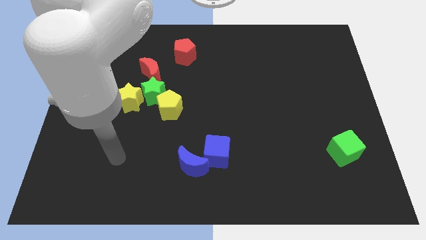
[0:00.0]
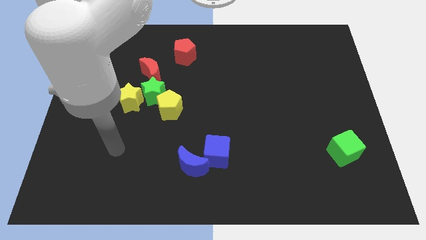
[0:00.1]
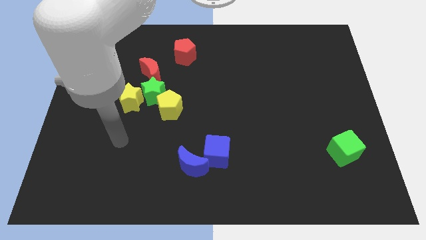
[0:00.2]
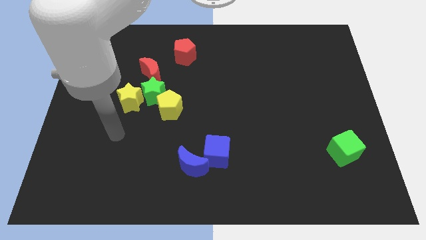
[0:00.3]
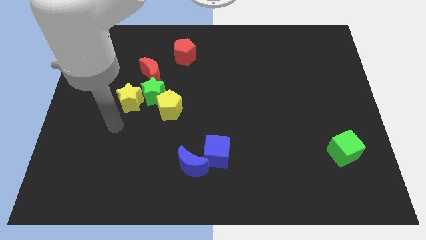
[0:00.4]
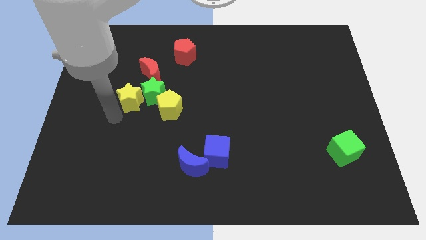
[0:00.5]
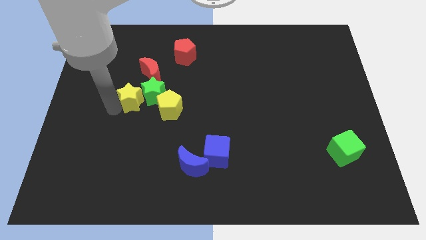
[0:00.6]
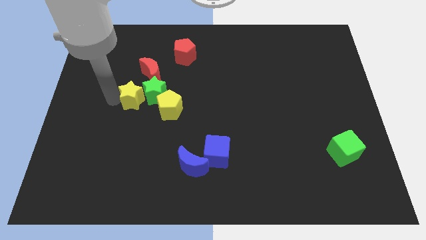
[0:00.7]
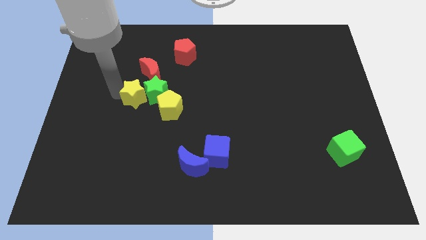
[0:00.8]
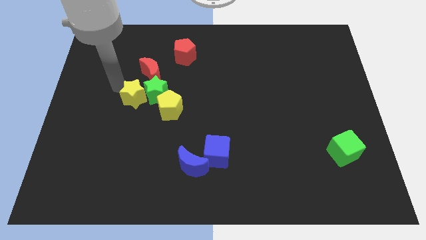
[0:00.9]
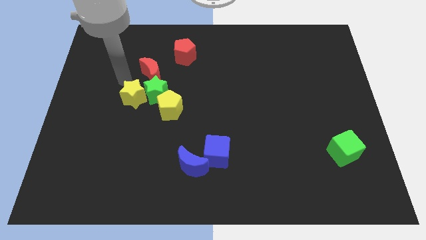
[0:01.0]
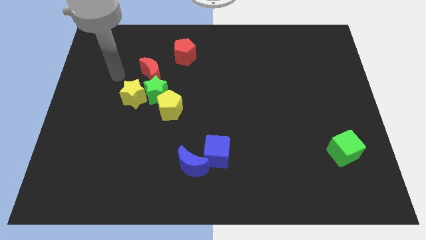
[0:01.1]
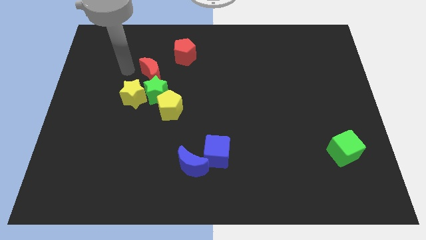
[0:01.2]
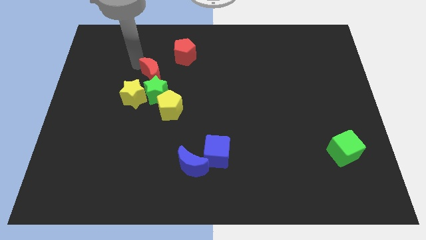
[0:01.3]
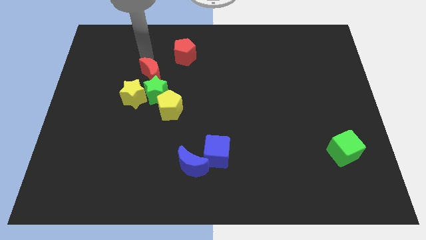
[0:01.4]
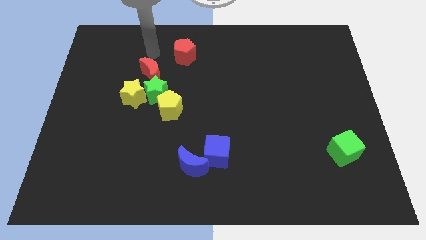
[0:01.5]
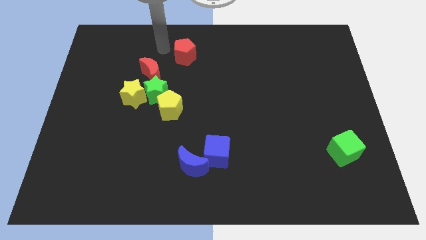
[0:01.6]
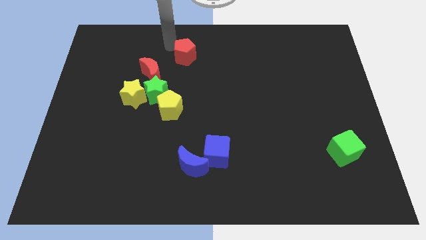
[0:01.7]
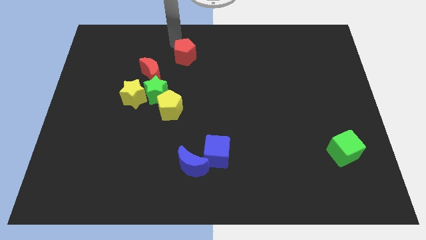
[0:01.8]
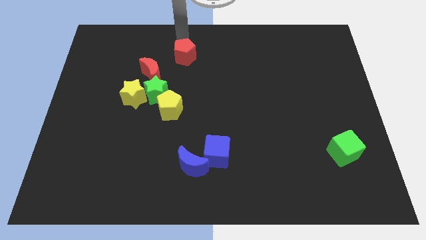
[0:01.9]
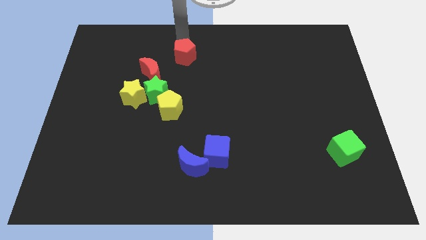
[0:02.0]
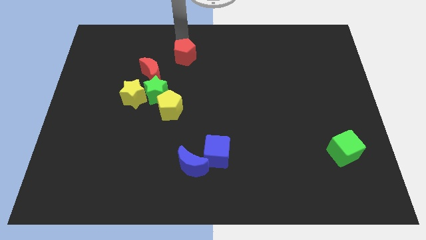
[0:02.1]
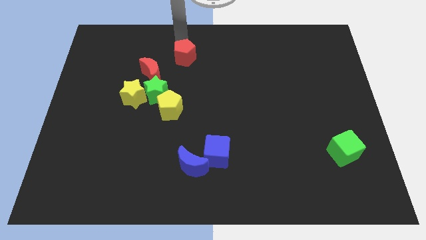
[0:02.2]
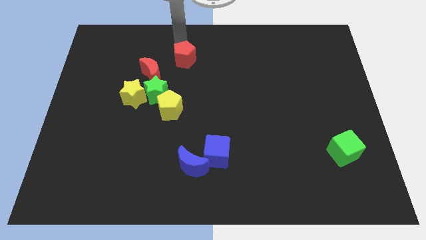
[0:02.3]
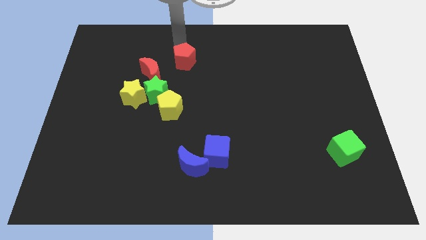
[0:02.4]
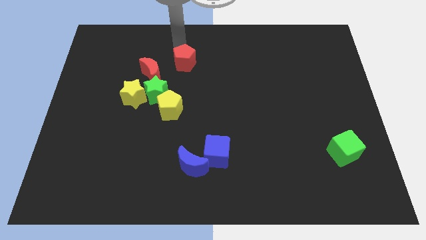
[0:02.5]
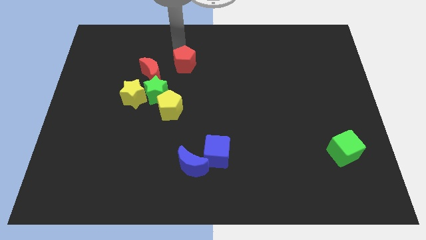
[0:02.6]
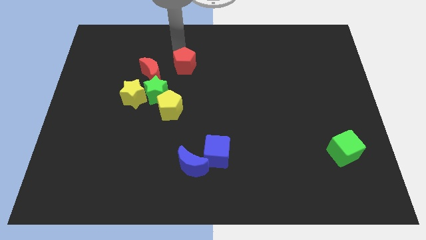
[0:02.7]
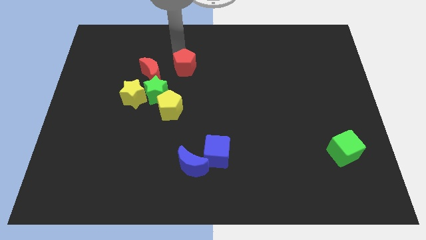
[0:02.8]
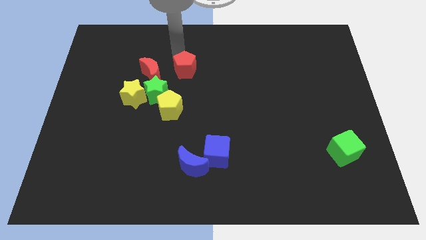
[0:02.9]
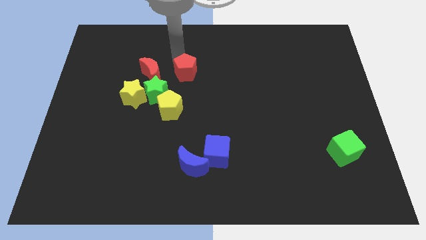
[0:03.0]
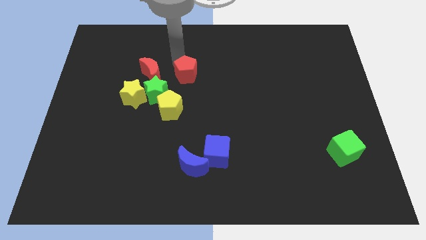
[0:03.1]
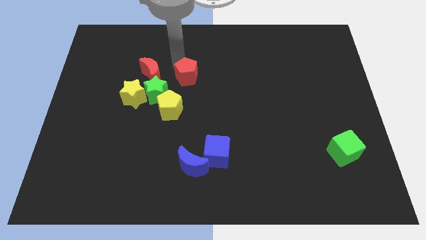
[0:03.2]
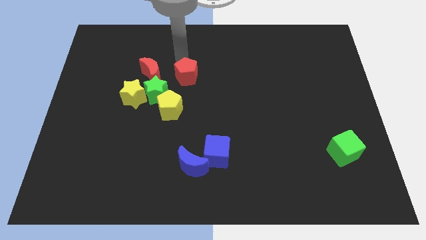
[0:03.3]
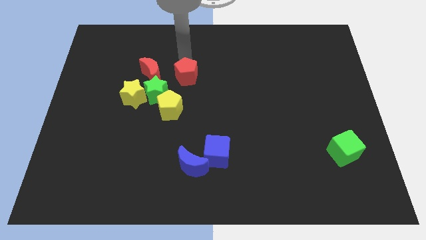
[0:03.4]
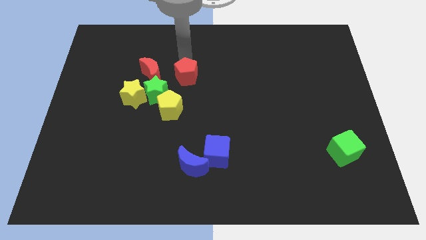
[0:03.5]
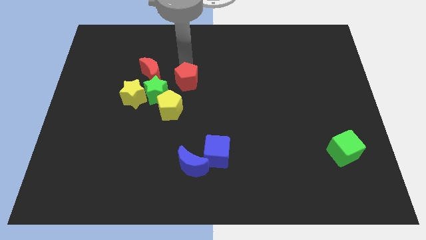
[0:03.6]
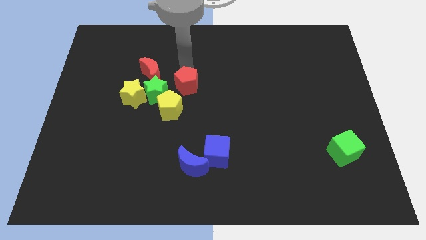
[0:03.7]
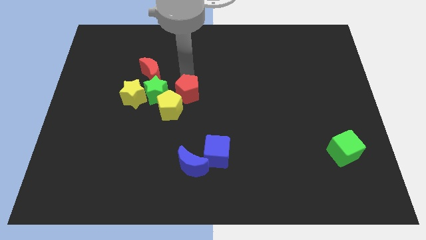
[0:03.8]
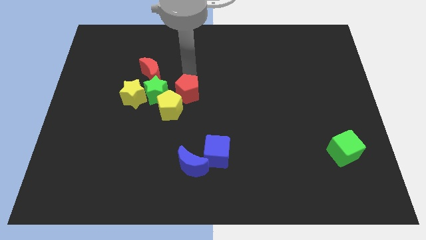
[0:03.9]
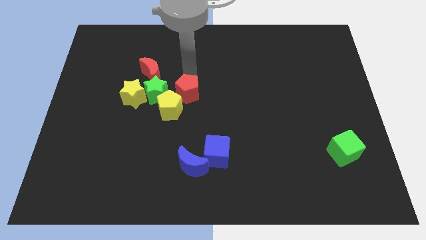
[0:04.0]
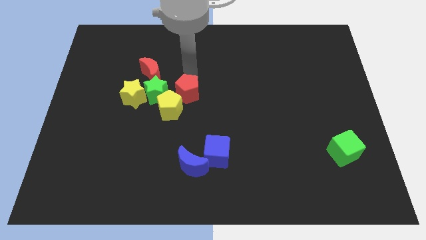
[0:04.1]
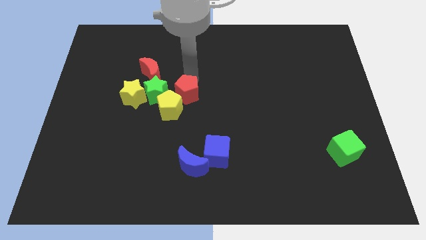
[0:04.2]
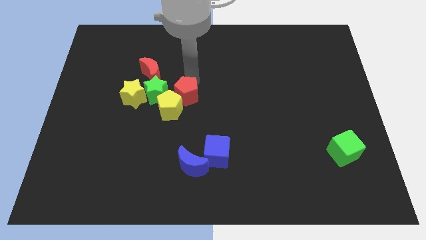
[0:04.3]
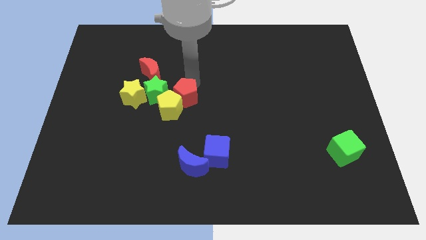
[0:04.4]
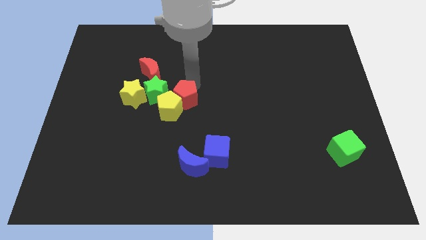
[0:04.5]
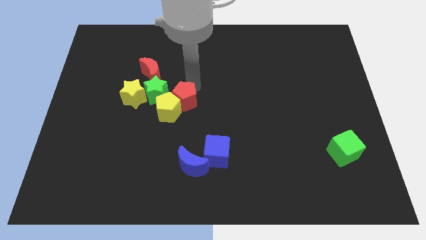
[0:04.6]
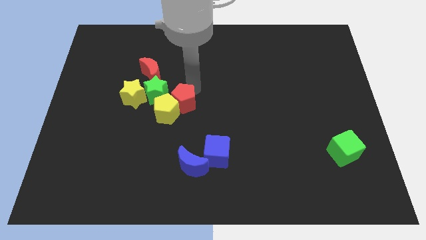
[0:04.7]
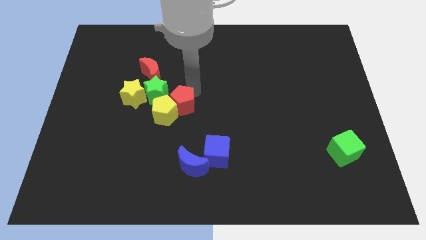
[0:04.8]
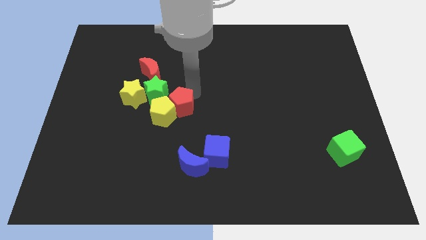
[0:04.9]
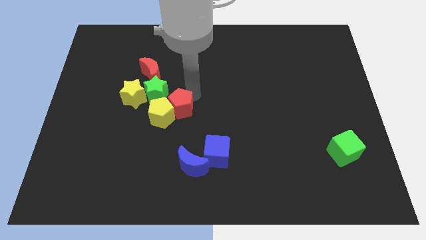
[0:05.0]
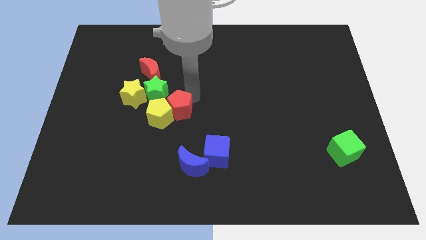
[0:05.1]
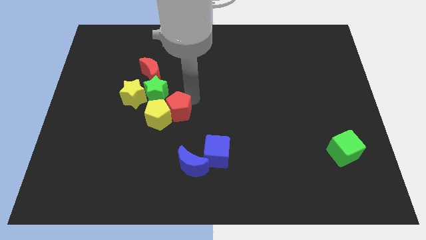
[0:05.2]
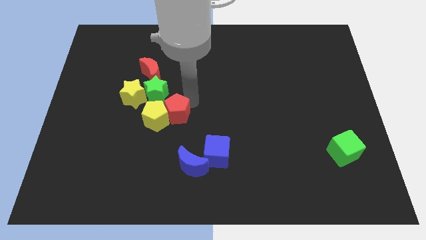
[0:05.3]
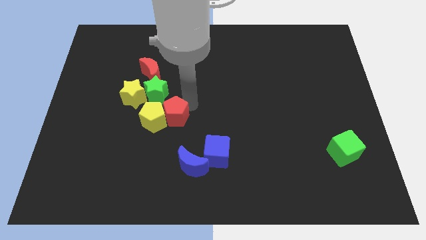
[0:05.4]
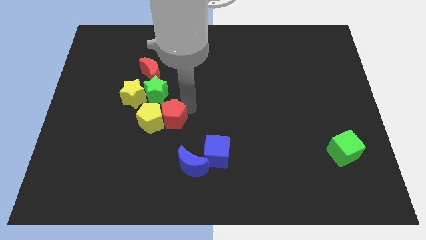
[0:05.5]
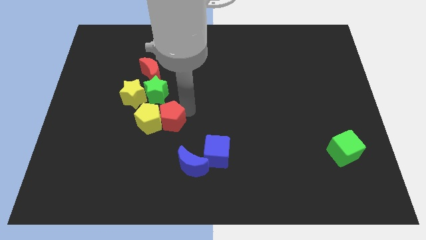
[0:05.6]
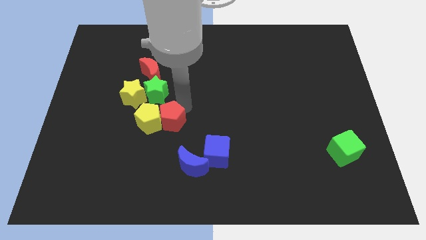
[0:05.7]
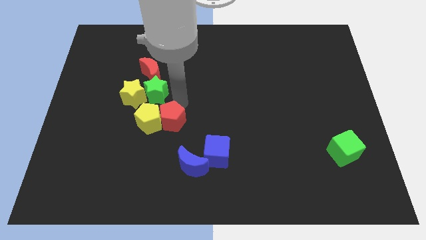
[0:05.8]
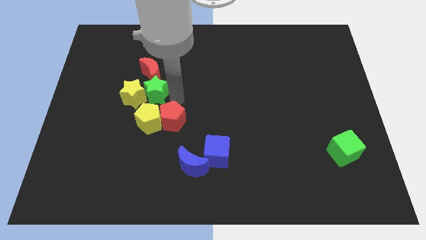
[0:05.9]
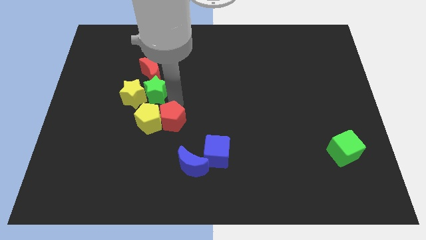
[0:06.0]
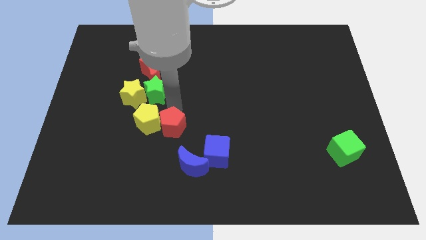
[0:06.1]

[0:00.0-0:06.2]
move the red pentagon to the top left of the blue moon

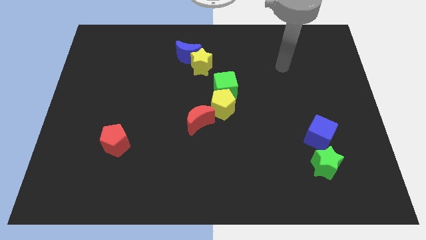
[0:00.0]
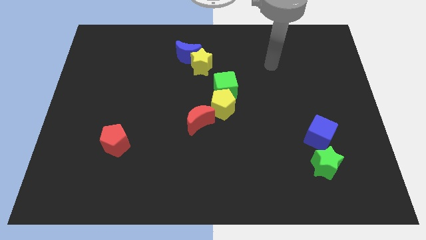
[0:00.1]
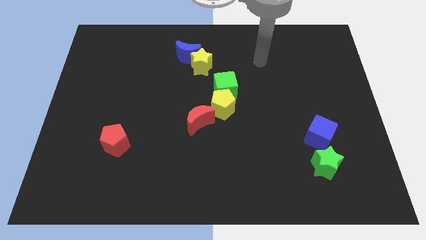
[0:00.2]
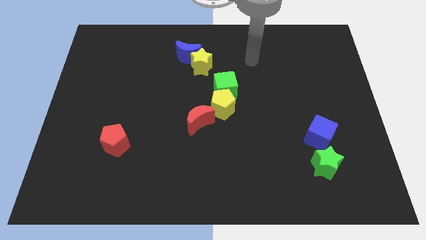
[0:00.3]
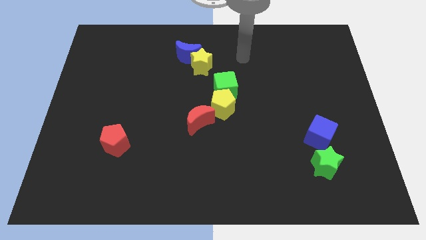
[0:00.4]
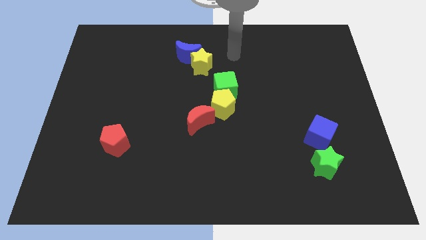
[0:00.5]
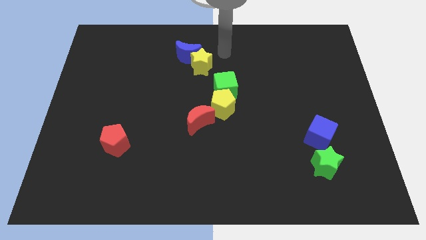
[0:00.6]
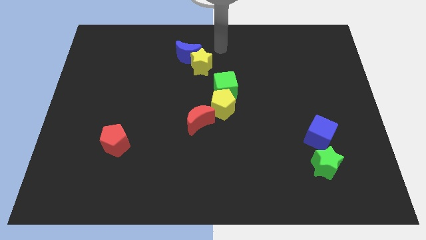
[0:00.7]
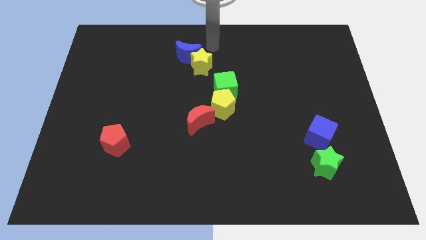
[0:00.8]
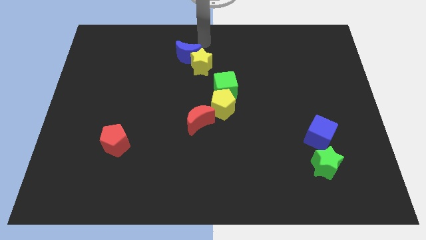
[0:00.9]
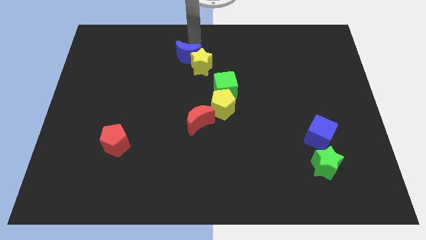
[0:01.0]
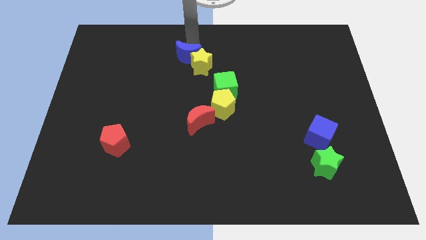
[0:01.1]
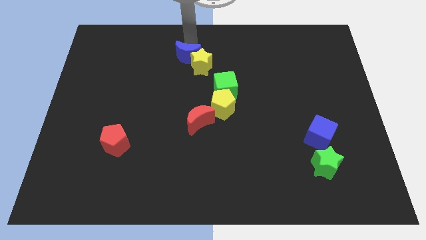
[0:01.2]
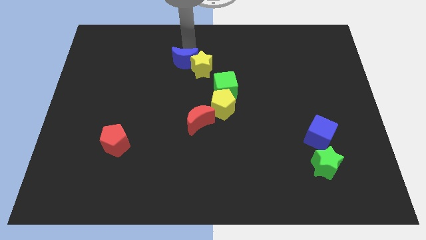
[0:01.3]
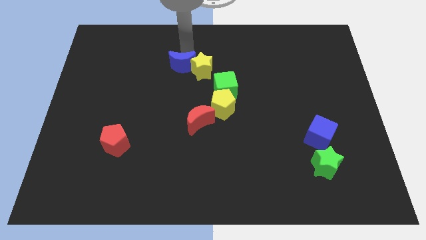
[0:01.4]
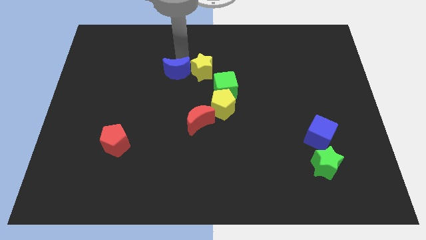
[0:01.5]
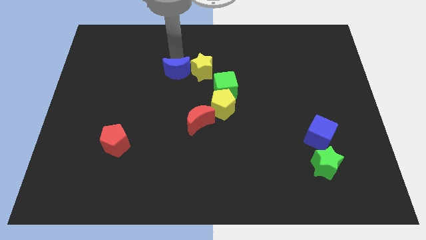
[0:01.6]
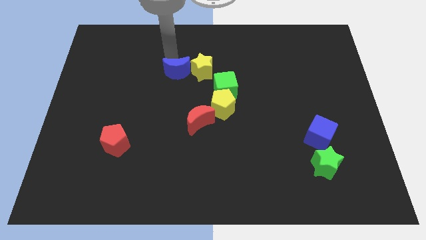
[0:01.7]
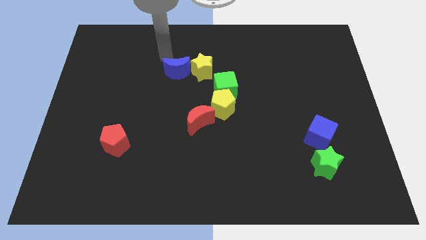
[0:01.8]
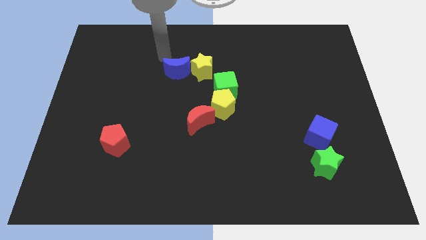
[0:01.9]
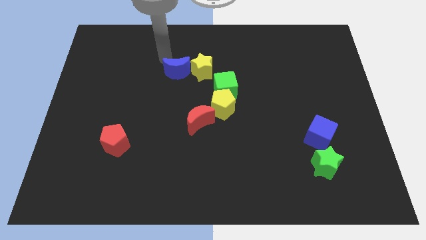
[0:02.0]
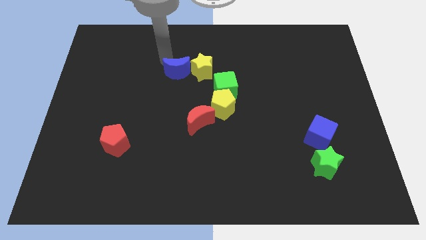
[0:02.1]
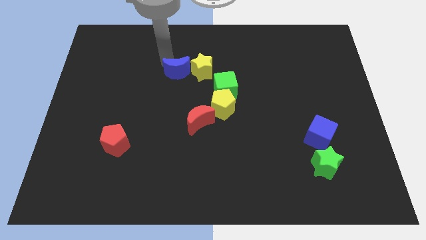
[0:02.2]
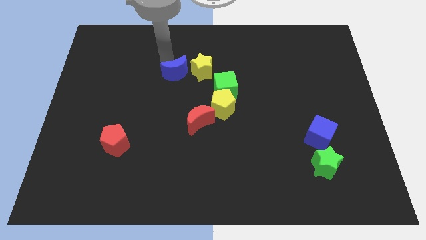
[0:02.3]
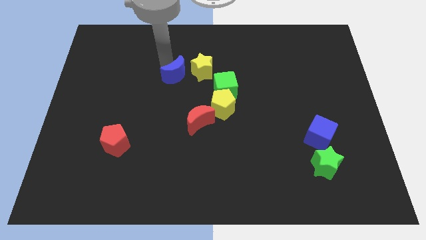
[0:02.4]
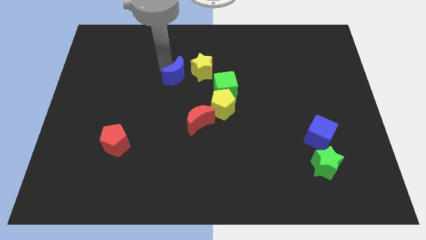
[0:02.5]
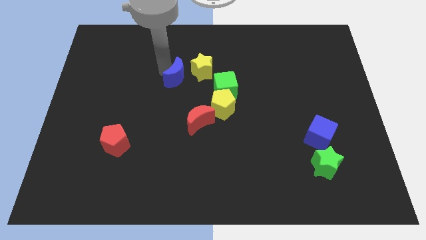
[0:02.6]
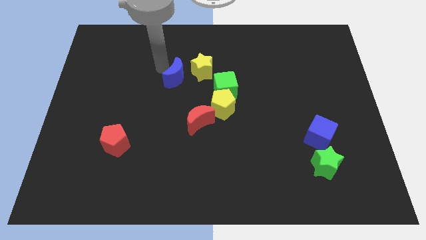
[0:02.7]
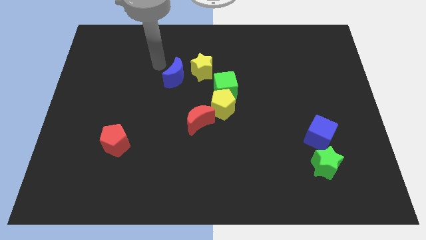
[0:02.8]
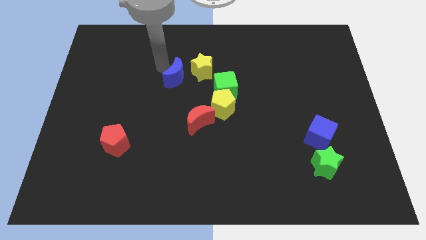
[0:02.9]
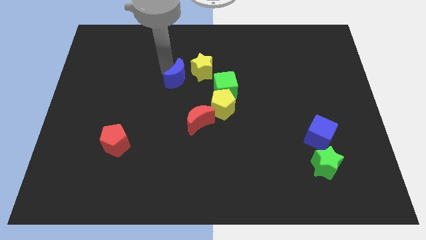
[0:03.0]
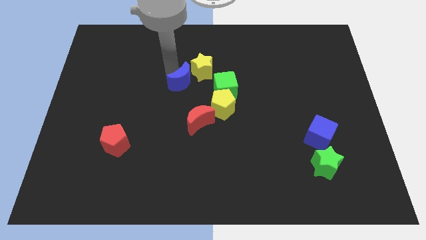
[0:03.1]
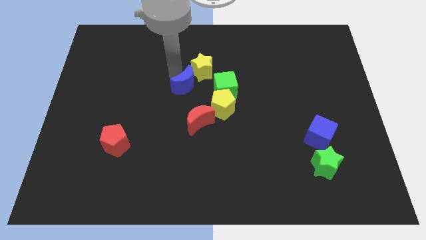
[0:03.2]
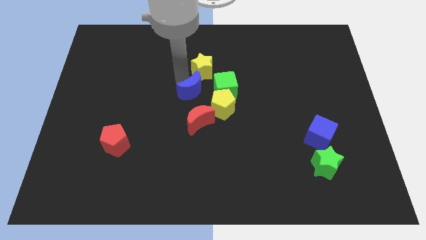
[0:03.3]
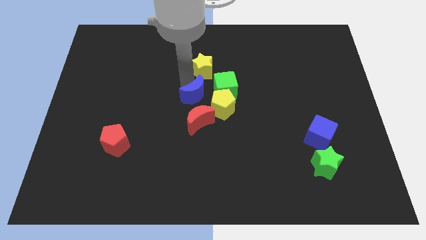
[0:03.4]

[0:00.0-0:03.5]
slide the blue moon diagonally down and to the left of the green cube
